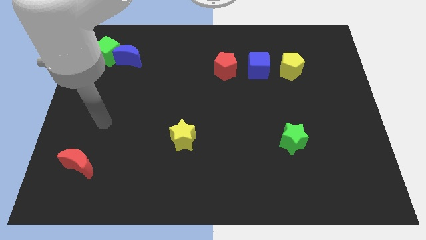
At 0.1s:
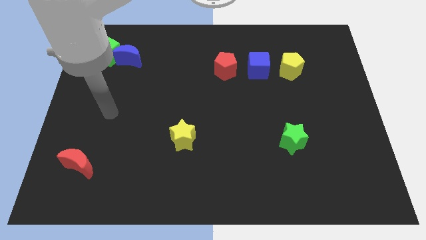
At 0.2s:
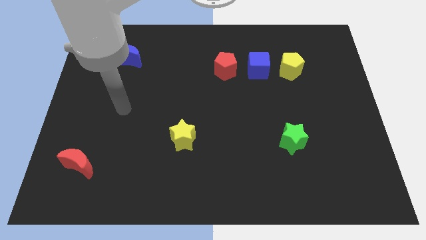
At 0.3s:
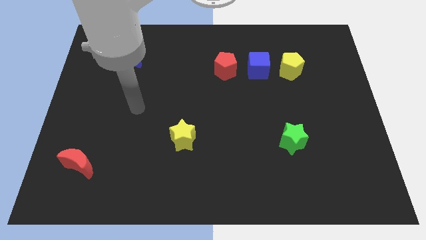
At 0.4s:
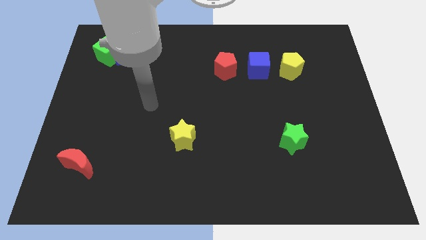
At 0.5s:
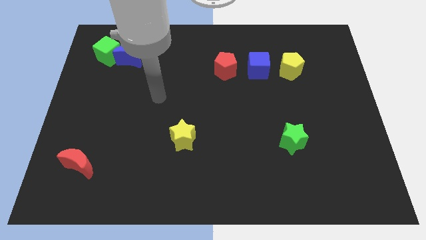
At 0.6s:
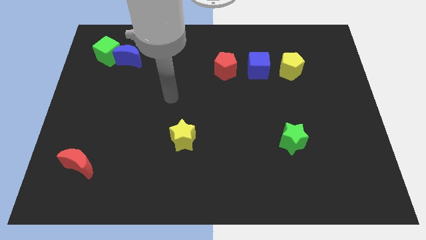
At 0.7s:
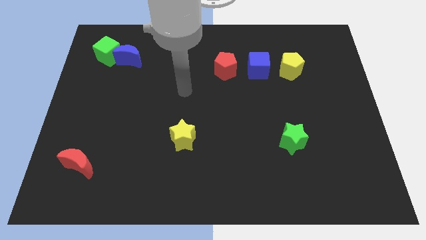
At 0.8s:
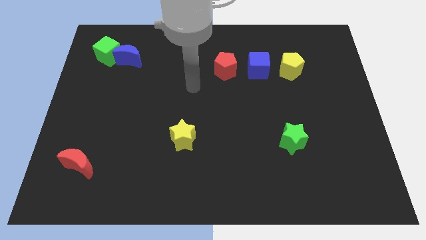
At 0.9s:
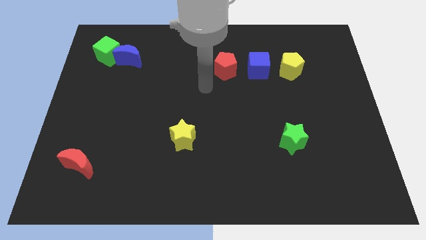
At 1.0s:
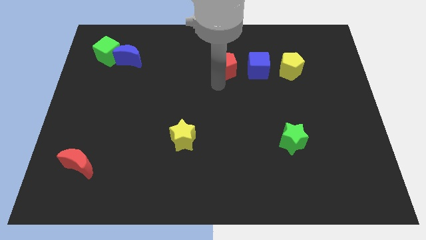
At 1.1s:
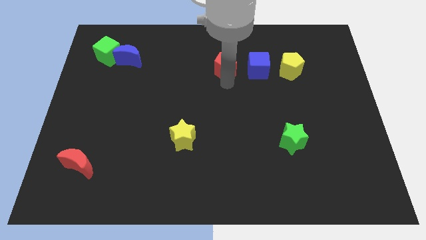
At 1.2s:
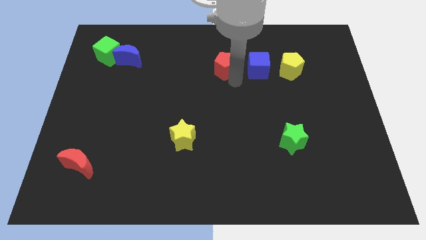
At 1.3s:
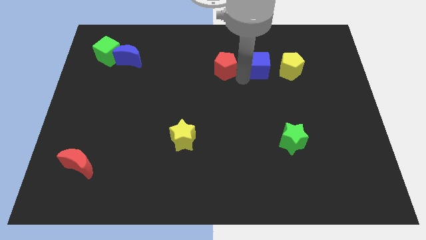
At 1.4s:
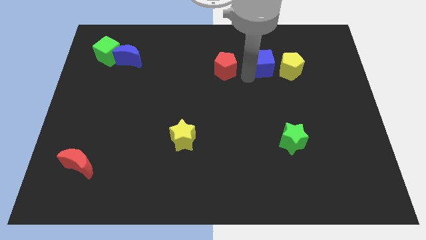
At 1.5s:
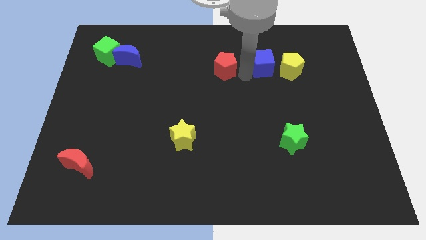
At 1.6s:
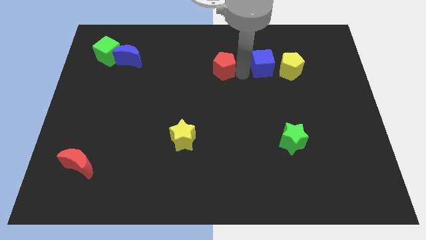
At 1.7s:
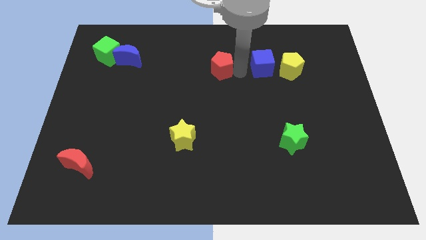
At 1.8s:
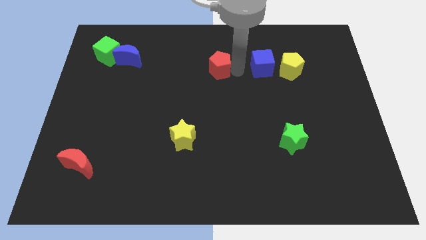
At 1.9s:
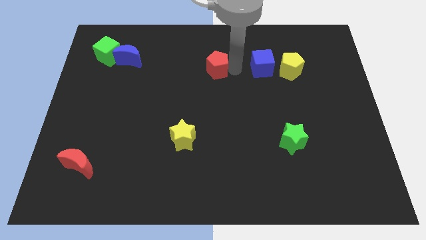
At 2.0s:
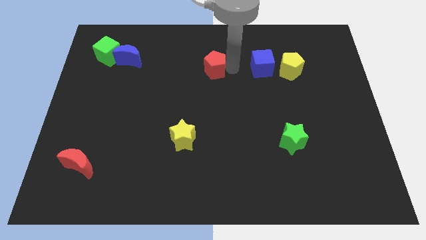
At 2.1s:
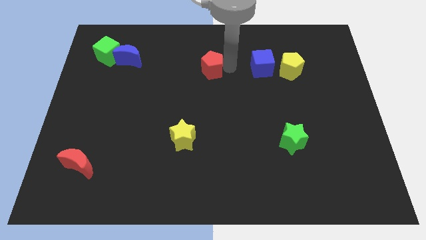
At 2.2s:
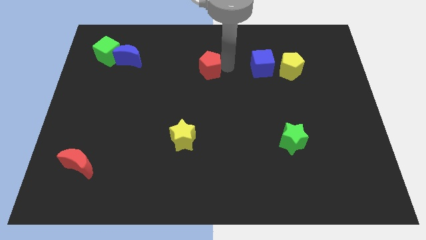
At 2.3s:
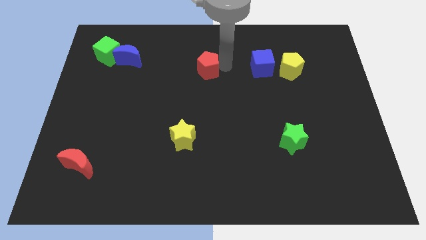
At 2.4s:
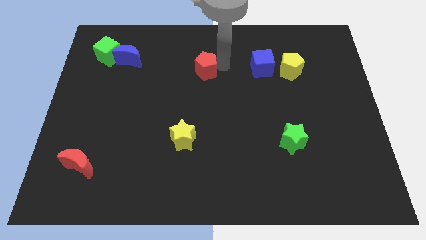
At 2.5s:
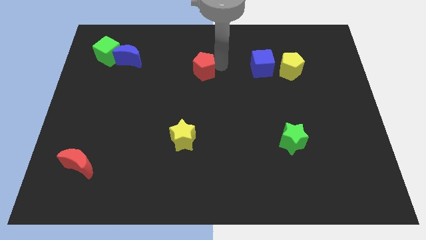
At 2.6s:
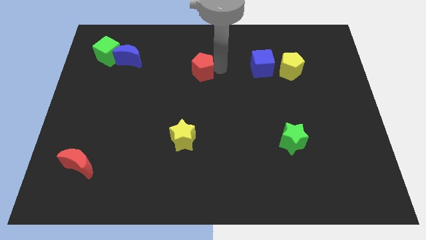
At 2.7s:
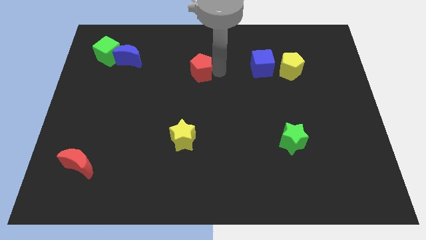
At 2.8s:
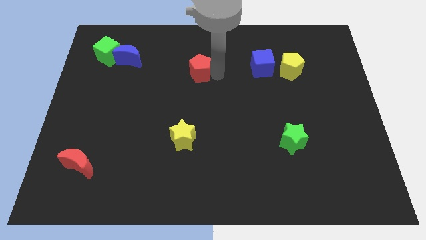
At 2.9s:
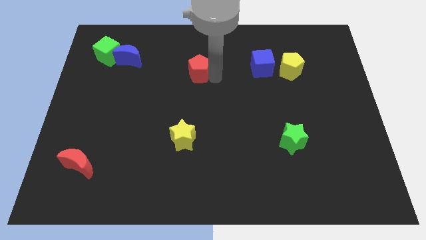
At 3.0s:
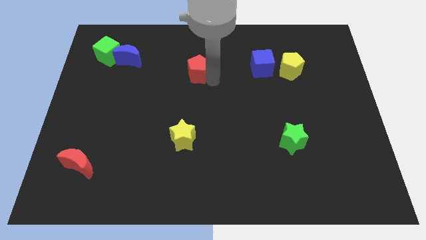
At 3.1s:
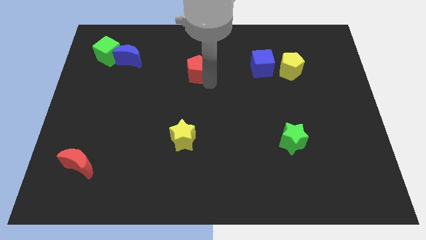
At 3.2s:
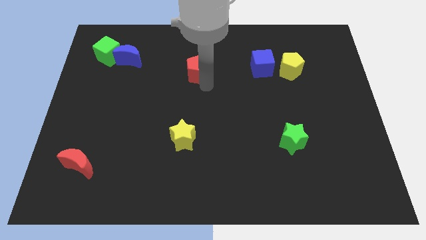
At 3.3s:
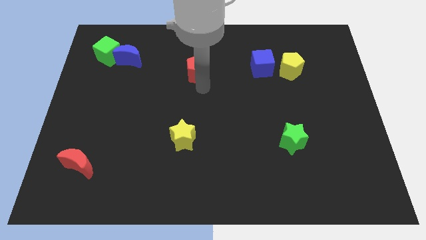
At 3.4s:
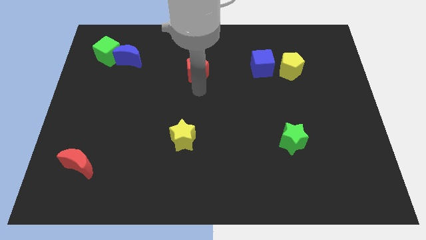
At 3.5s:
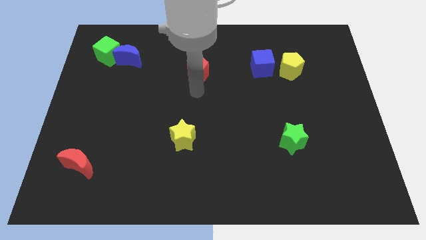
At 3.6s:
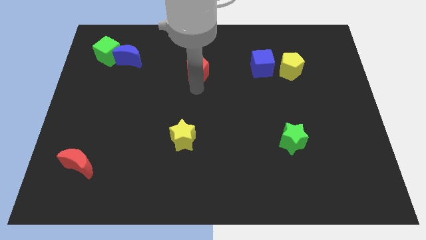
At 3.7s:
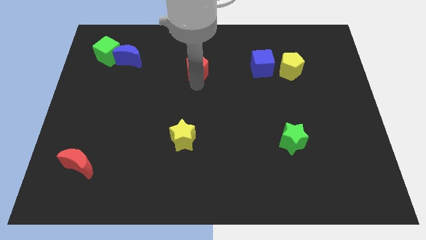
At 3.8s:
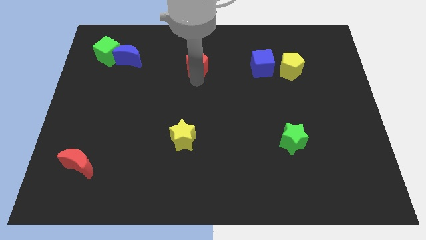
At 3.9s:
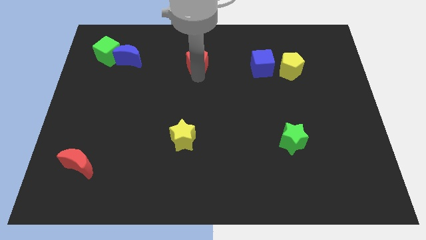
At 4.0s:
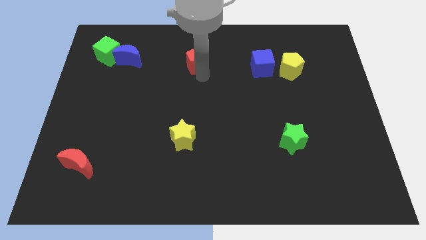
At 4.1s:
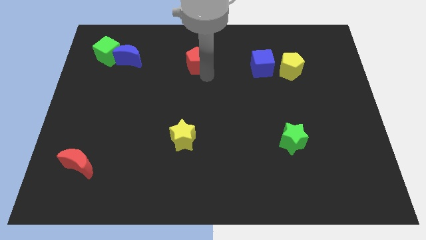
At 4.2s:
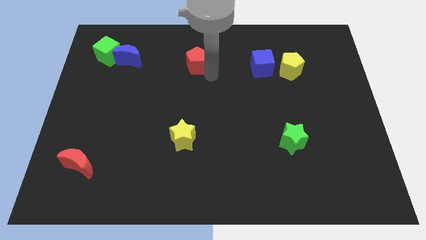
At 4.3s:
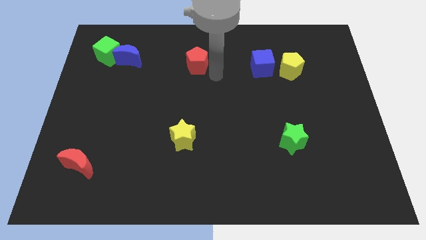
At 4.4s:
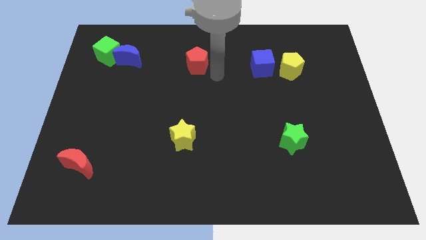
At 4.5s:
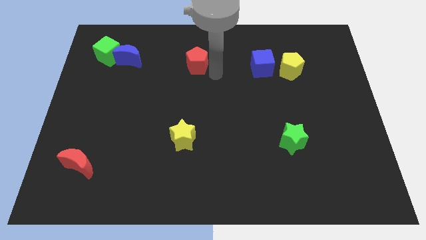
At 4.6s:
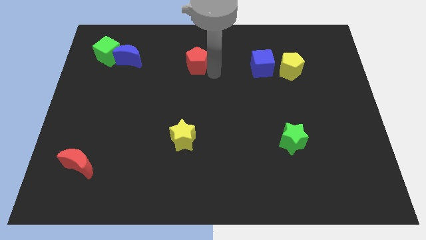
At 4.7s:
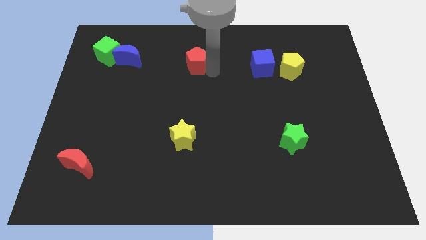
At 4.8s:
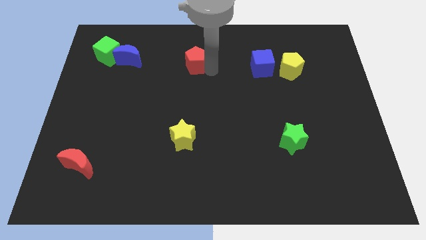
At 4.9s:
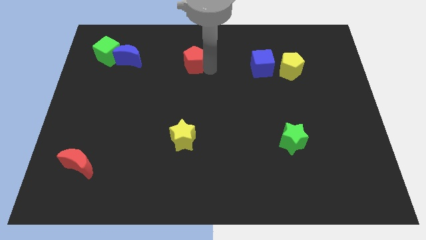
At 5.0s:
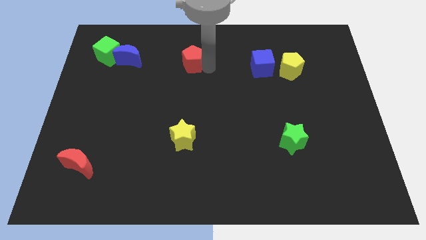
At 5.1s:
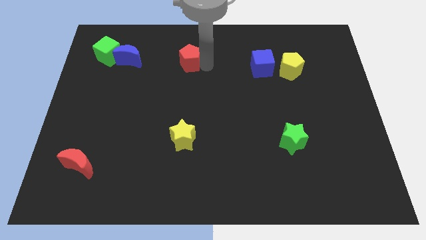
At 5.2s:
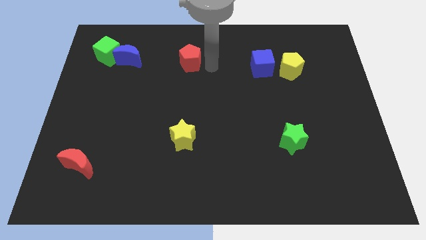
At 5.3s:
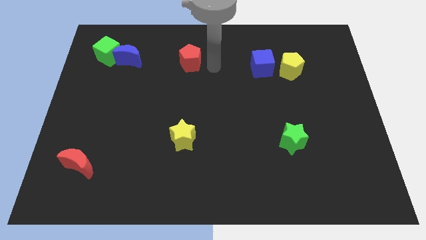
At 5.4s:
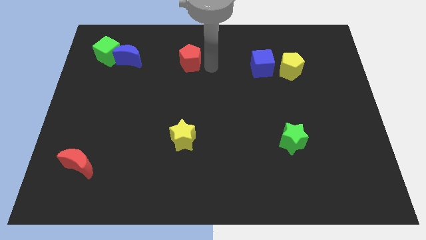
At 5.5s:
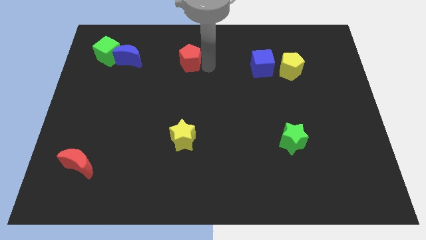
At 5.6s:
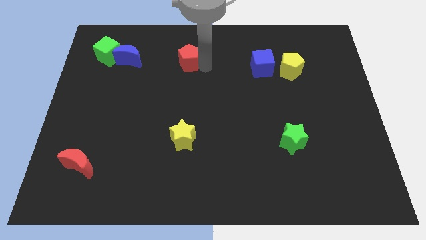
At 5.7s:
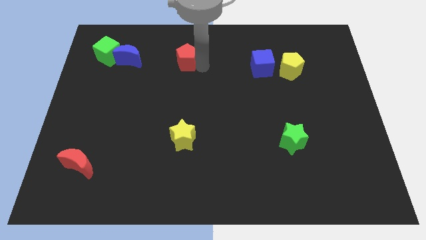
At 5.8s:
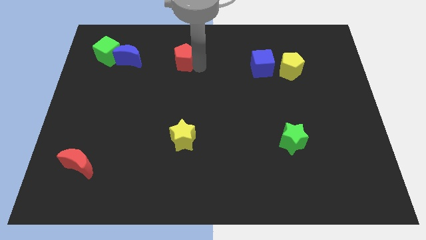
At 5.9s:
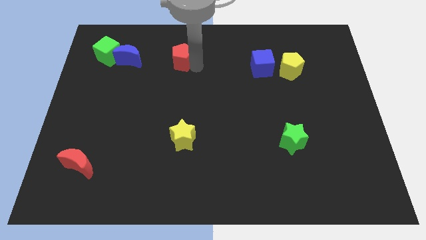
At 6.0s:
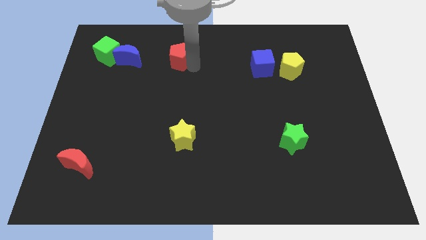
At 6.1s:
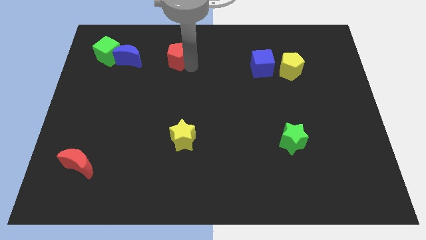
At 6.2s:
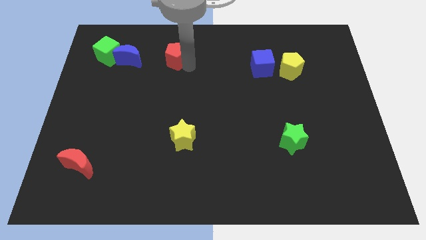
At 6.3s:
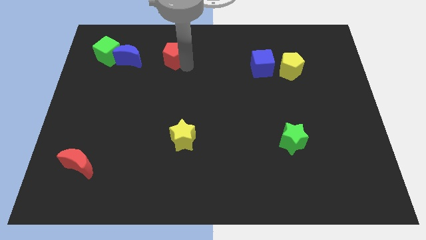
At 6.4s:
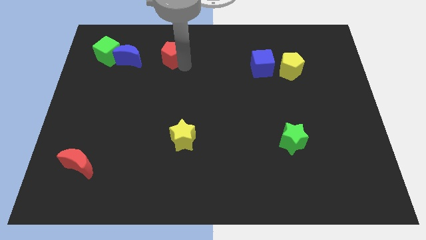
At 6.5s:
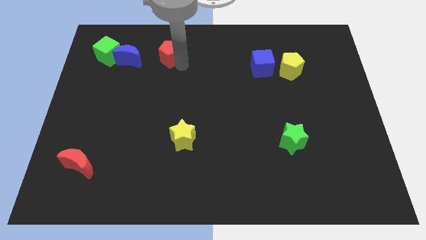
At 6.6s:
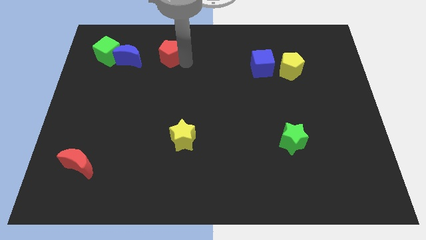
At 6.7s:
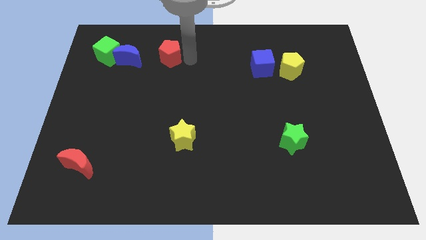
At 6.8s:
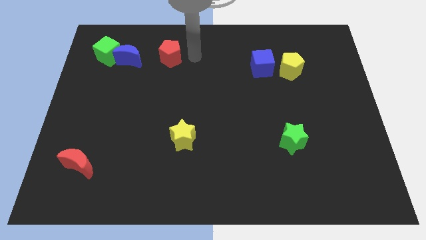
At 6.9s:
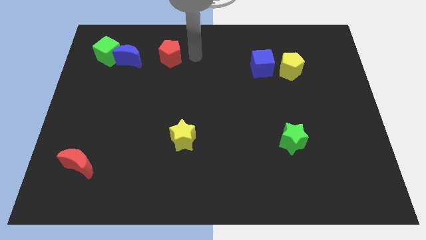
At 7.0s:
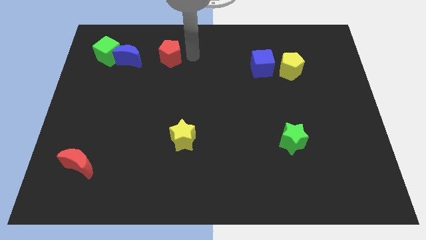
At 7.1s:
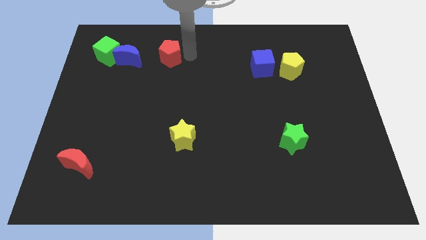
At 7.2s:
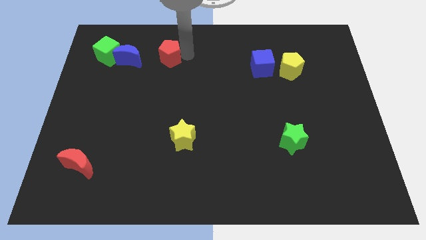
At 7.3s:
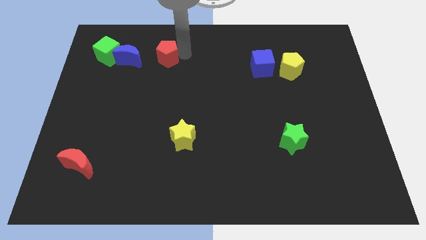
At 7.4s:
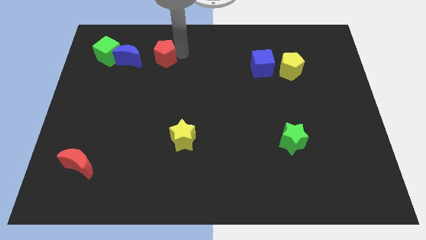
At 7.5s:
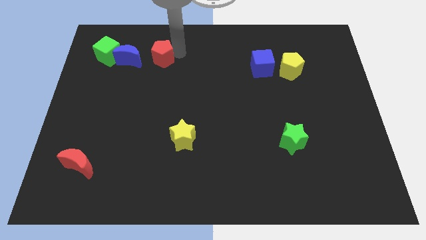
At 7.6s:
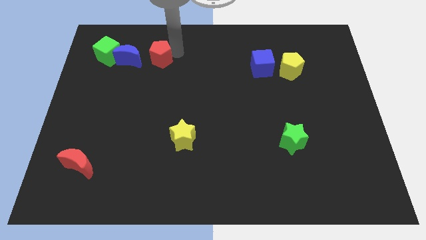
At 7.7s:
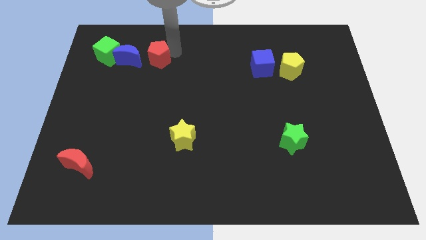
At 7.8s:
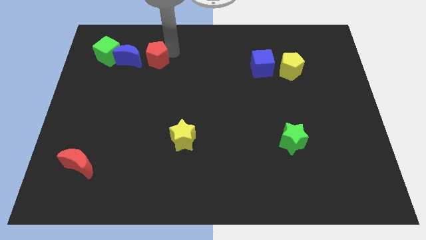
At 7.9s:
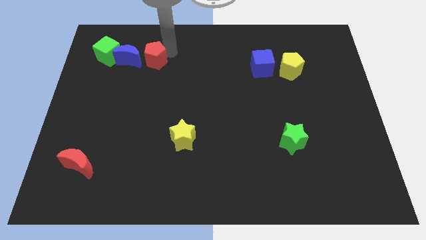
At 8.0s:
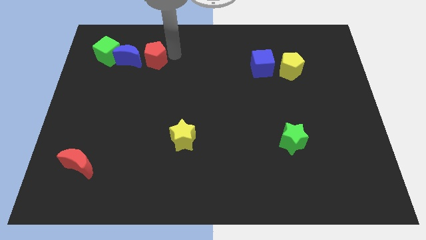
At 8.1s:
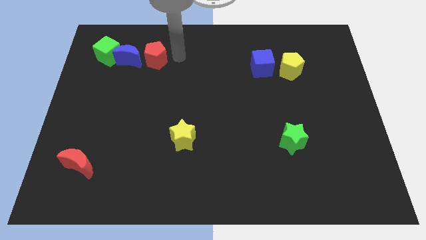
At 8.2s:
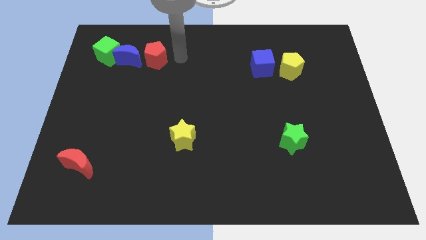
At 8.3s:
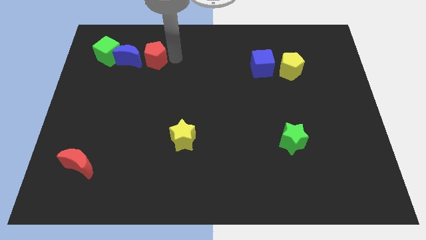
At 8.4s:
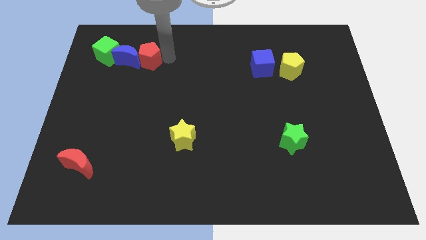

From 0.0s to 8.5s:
push the red pentagon towards the blue moon
